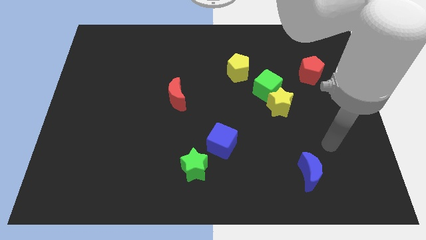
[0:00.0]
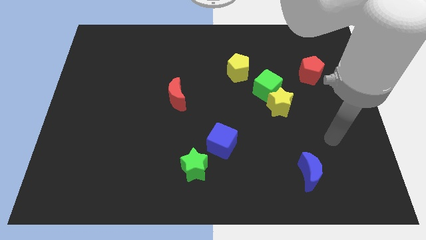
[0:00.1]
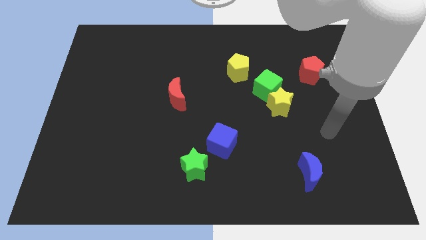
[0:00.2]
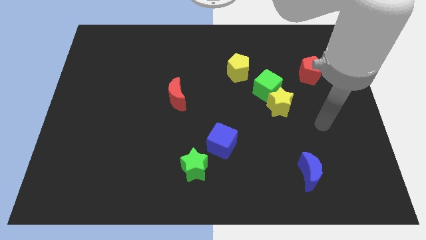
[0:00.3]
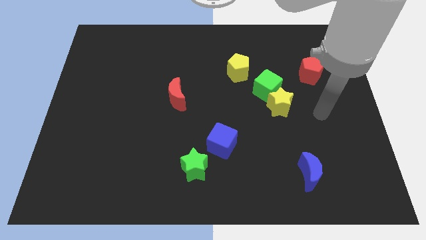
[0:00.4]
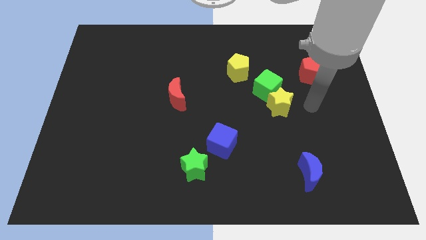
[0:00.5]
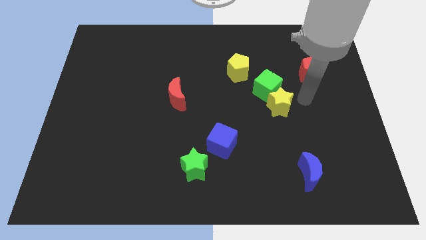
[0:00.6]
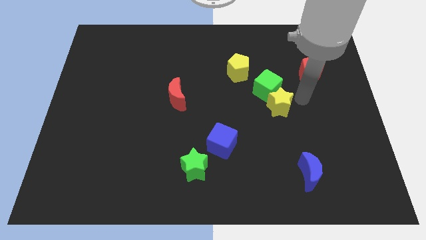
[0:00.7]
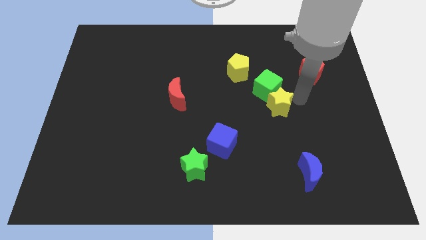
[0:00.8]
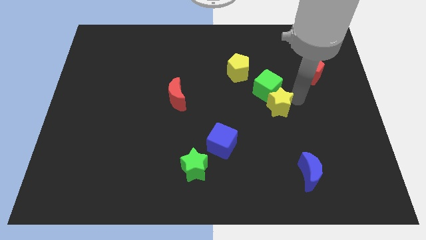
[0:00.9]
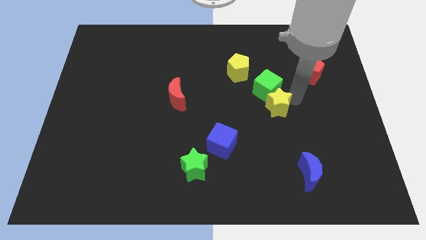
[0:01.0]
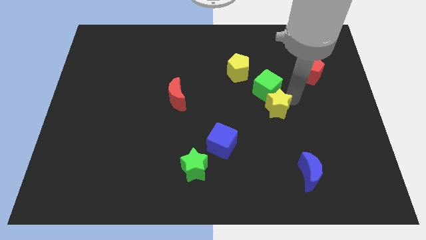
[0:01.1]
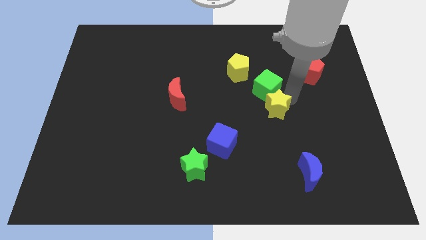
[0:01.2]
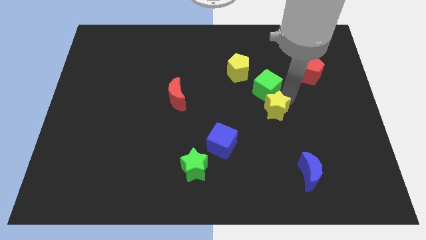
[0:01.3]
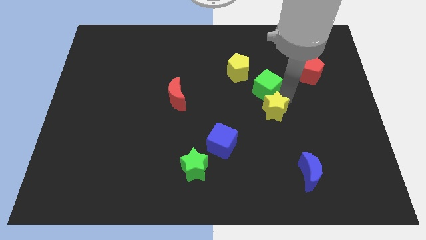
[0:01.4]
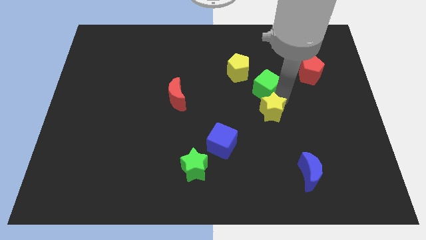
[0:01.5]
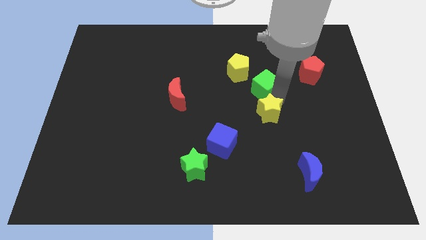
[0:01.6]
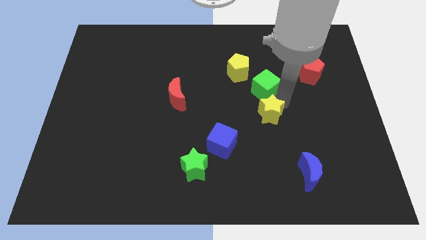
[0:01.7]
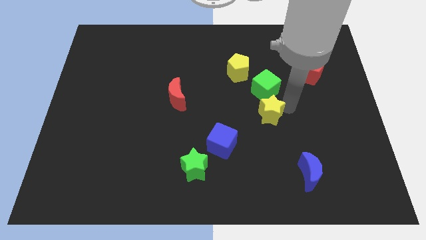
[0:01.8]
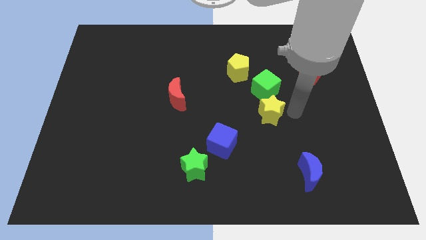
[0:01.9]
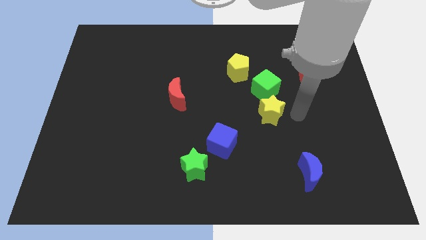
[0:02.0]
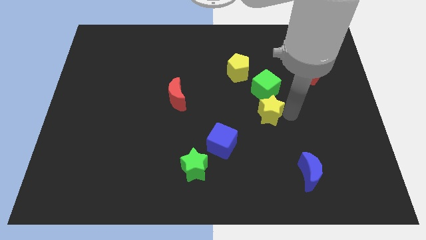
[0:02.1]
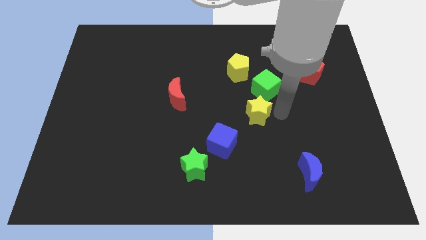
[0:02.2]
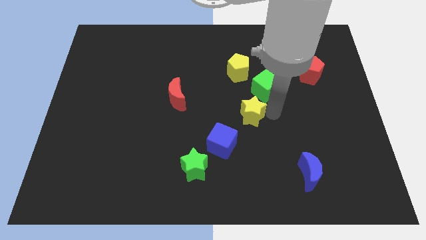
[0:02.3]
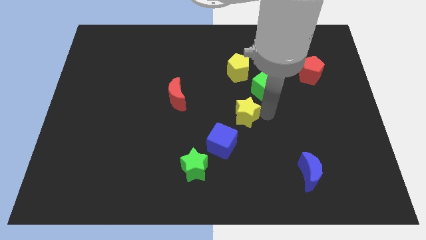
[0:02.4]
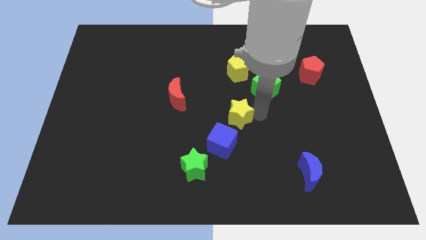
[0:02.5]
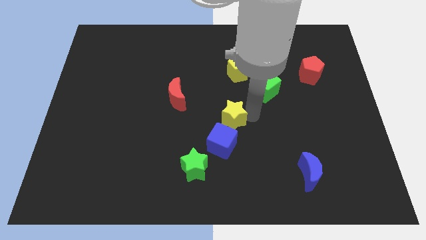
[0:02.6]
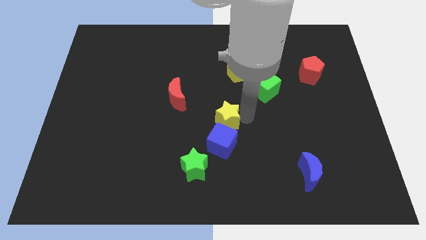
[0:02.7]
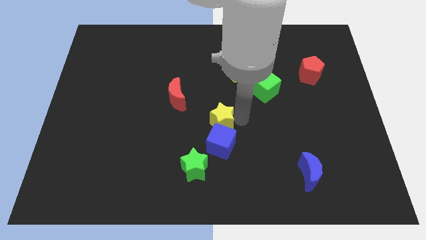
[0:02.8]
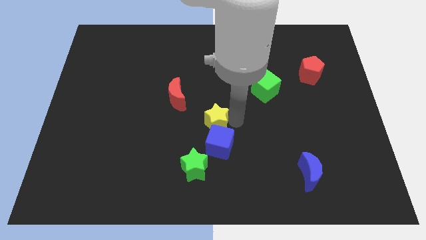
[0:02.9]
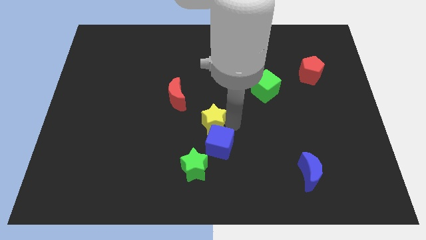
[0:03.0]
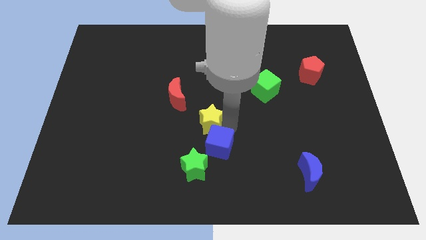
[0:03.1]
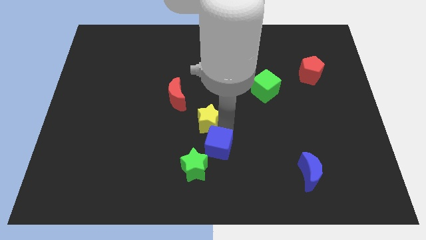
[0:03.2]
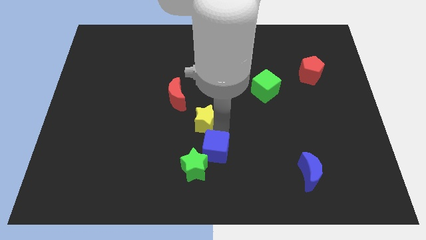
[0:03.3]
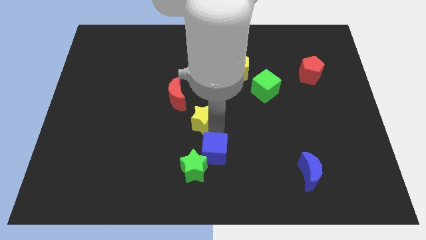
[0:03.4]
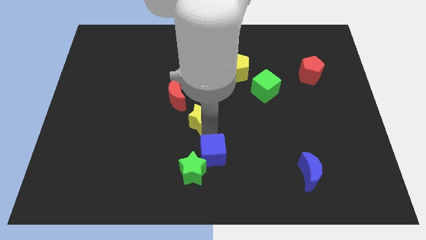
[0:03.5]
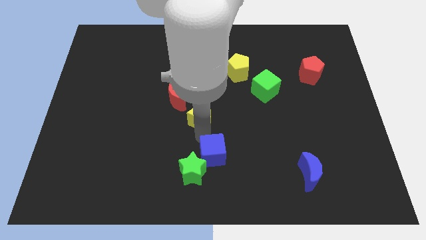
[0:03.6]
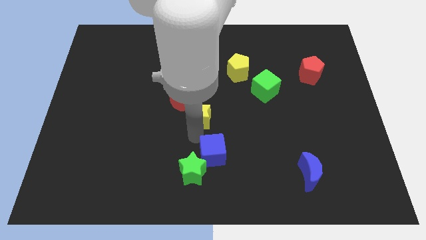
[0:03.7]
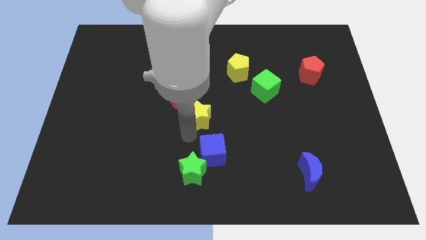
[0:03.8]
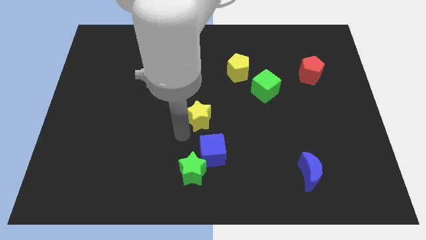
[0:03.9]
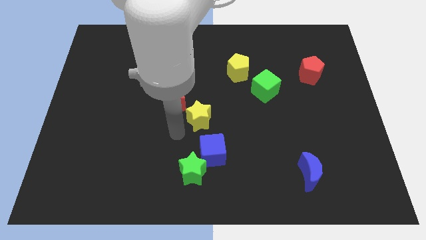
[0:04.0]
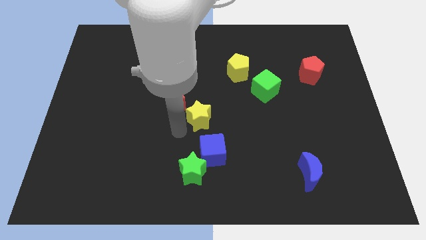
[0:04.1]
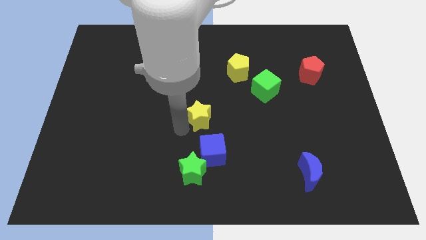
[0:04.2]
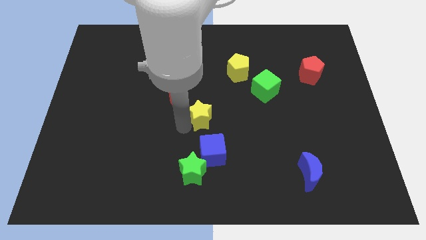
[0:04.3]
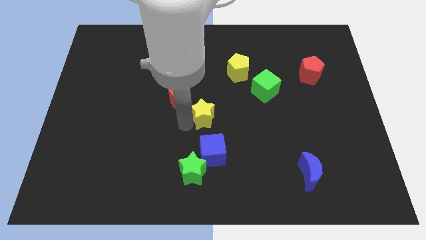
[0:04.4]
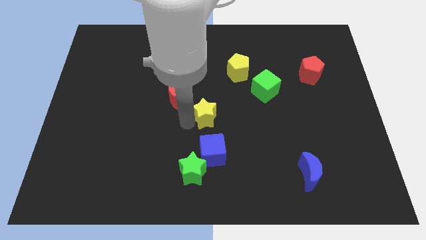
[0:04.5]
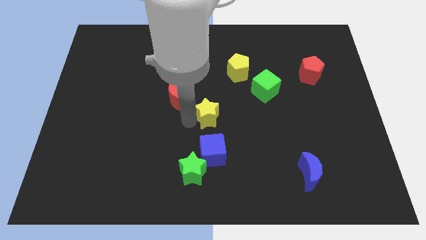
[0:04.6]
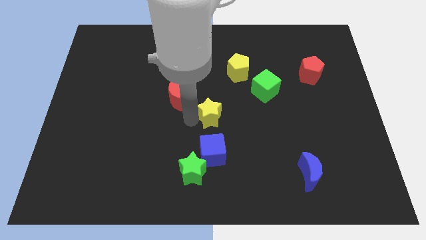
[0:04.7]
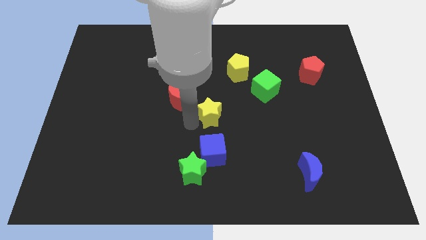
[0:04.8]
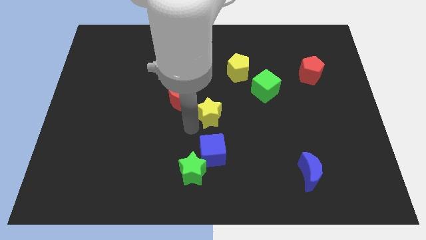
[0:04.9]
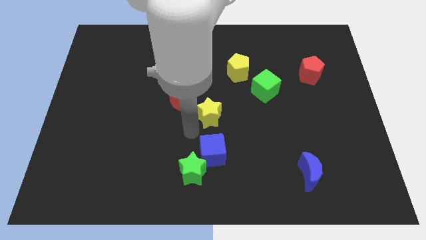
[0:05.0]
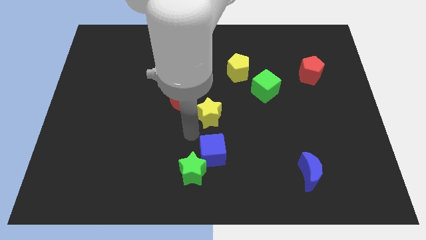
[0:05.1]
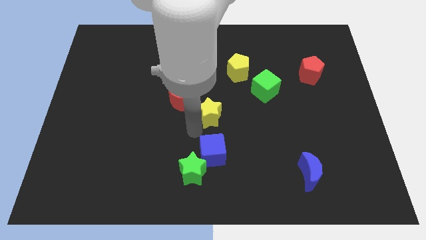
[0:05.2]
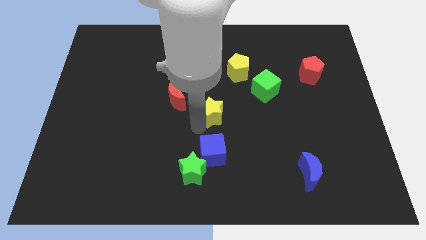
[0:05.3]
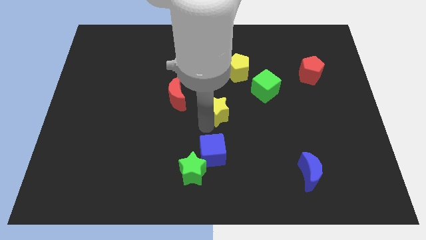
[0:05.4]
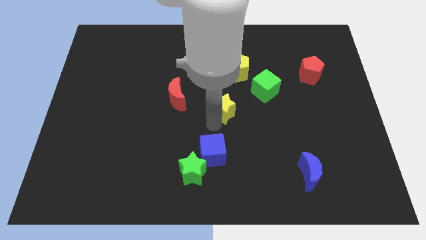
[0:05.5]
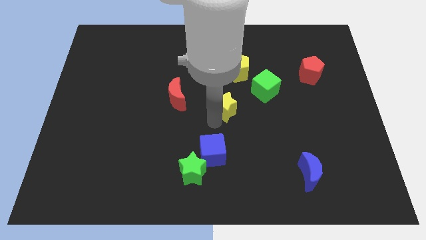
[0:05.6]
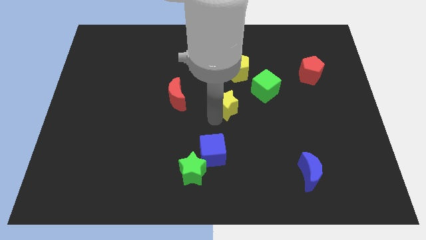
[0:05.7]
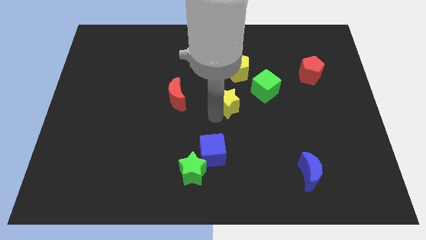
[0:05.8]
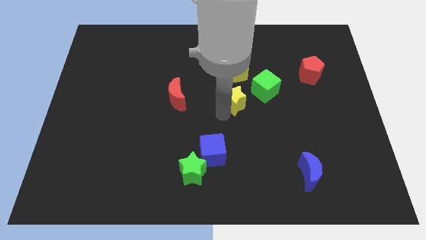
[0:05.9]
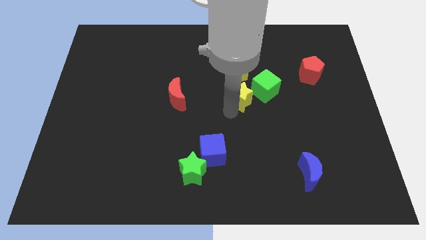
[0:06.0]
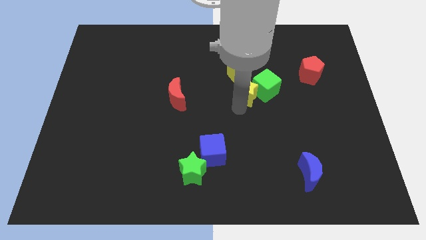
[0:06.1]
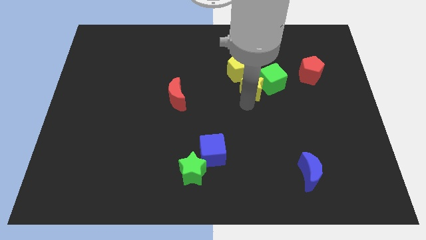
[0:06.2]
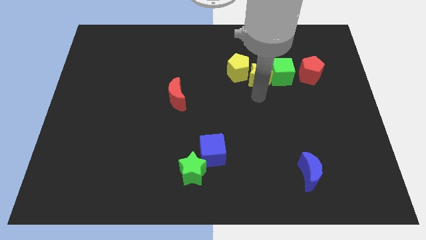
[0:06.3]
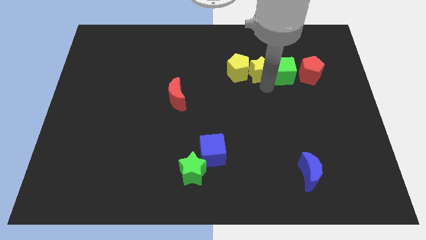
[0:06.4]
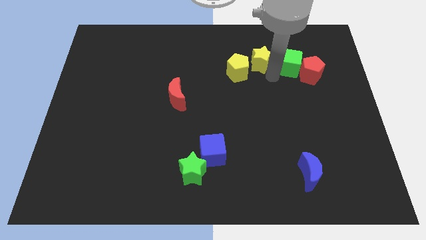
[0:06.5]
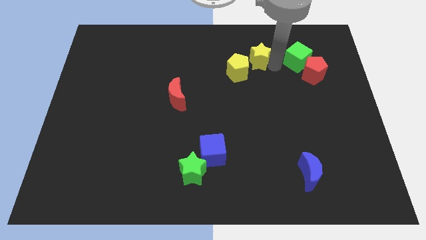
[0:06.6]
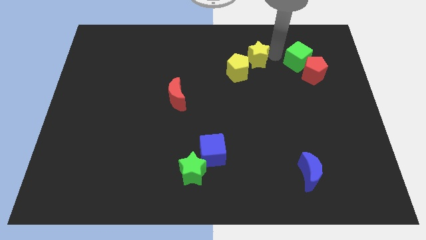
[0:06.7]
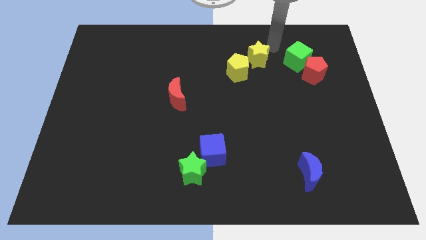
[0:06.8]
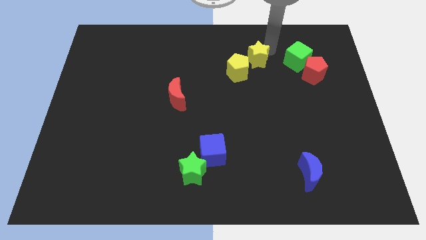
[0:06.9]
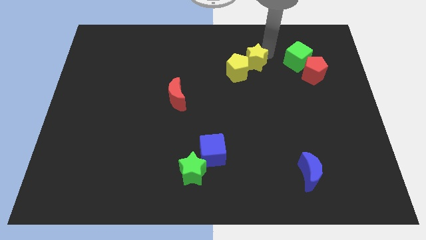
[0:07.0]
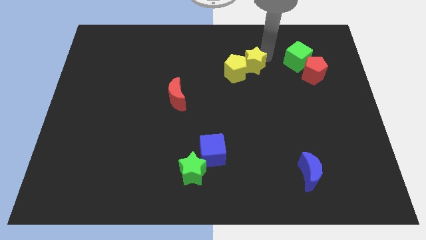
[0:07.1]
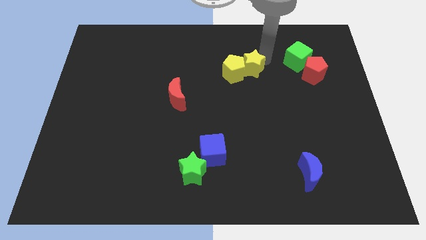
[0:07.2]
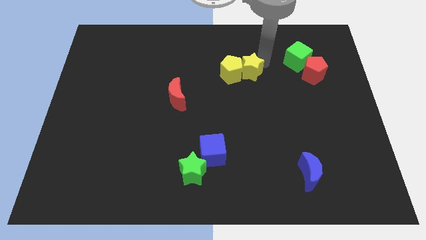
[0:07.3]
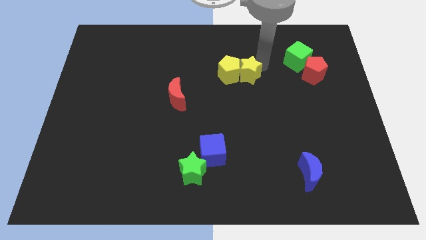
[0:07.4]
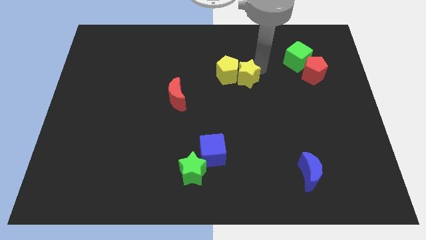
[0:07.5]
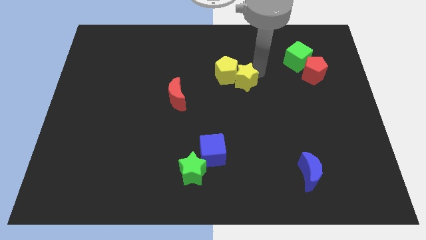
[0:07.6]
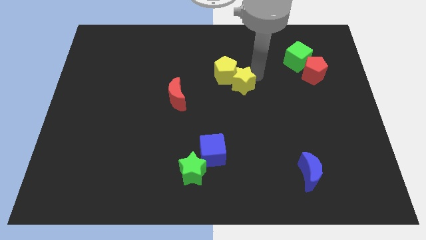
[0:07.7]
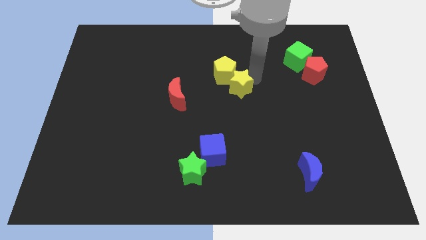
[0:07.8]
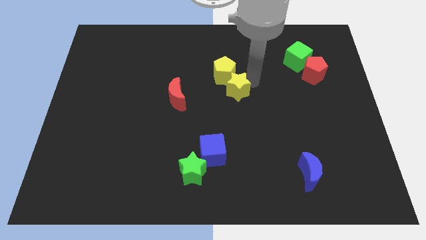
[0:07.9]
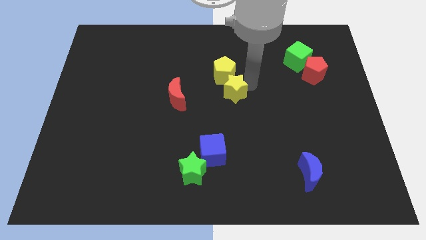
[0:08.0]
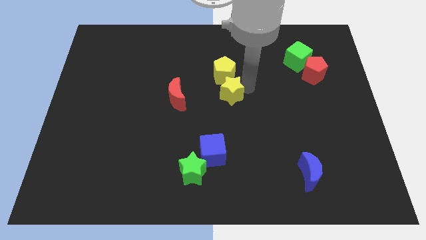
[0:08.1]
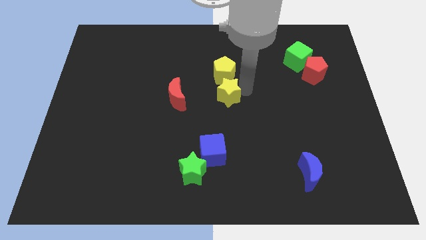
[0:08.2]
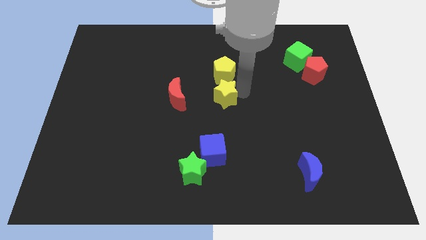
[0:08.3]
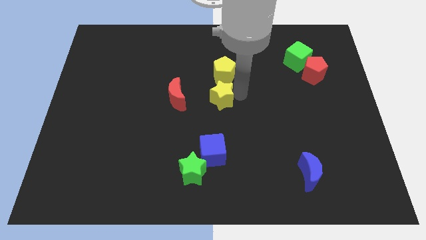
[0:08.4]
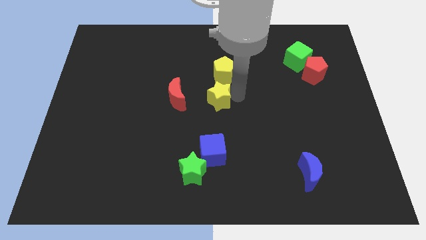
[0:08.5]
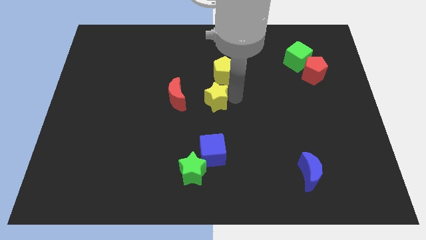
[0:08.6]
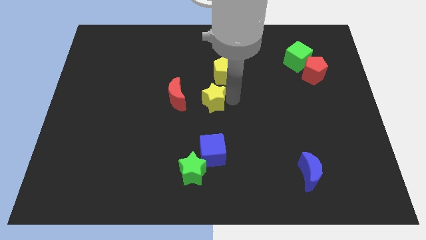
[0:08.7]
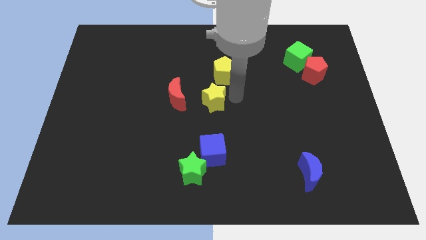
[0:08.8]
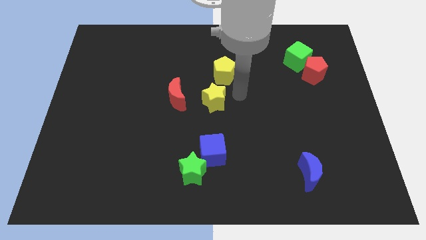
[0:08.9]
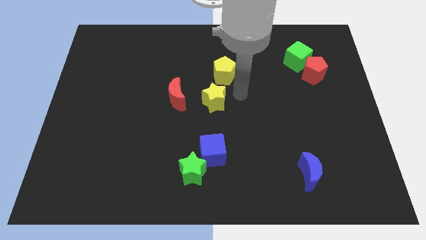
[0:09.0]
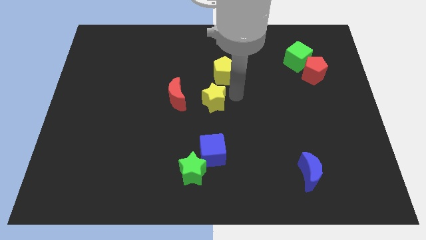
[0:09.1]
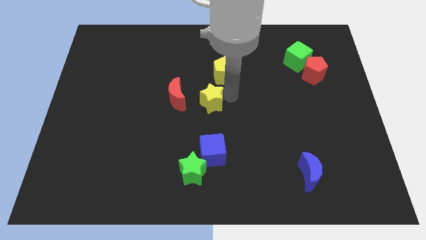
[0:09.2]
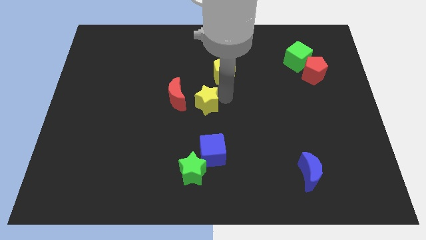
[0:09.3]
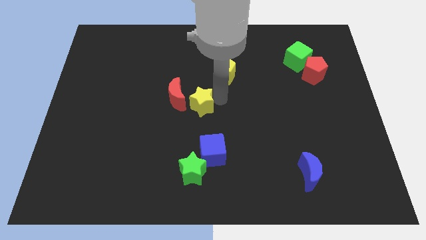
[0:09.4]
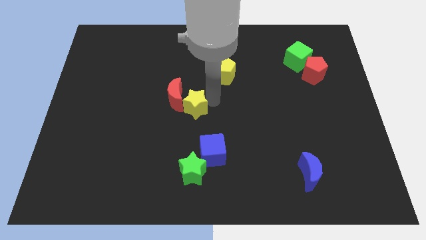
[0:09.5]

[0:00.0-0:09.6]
slide the yellow star to the left
